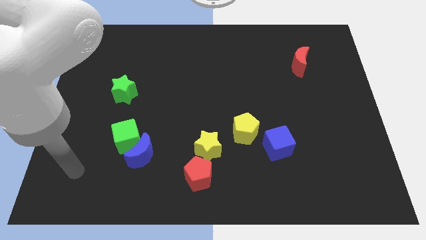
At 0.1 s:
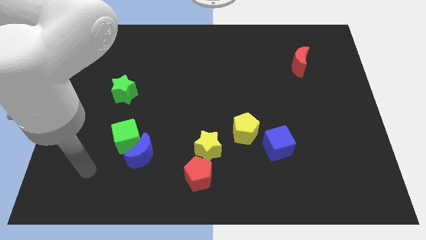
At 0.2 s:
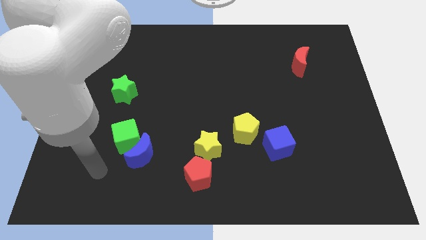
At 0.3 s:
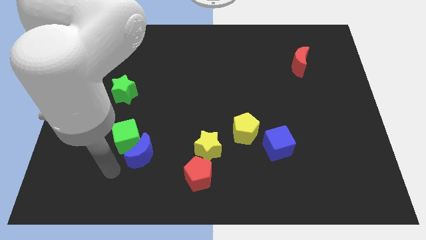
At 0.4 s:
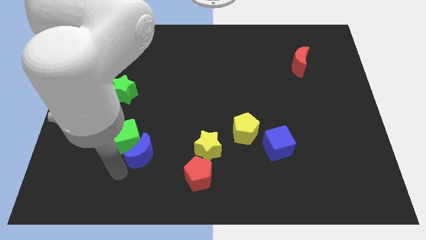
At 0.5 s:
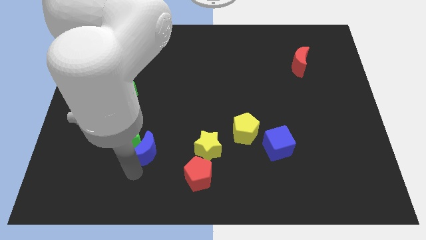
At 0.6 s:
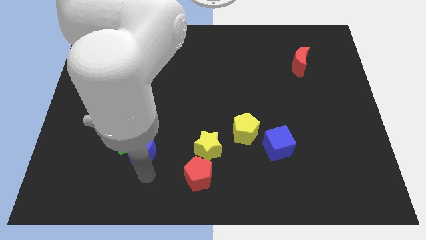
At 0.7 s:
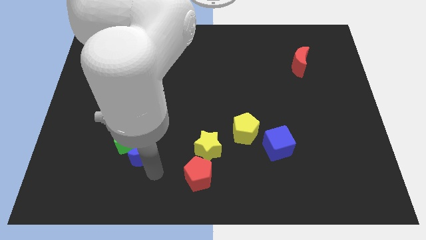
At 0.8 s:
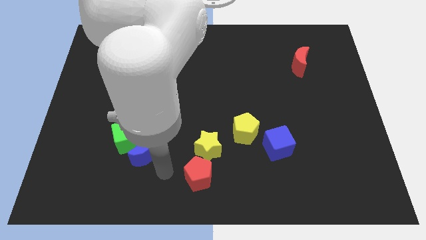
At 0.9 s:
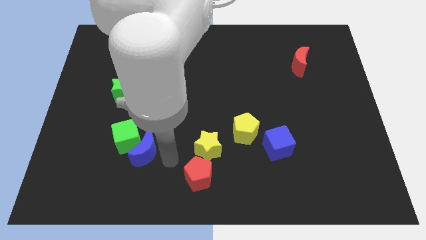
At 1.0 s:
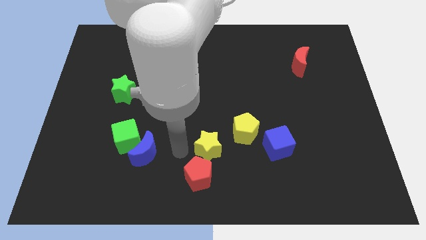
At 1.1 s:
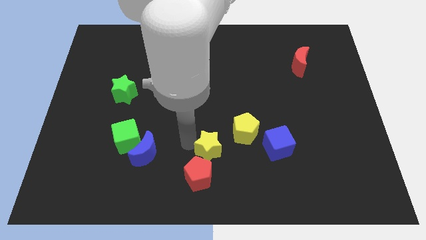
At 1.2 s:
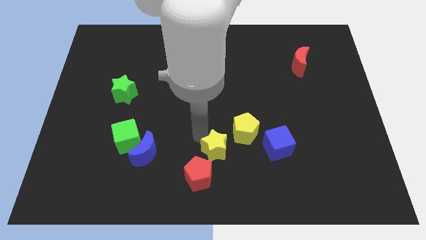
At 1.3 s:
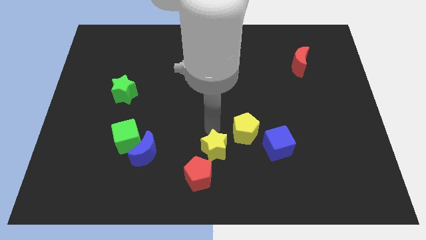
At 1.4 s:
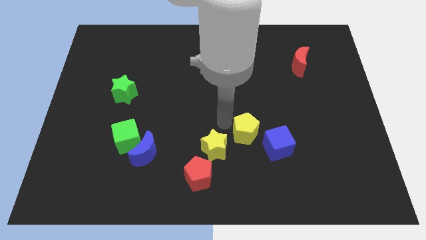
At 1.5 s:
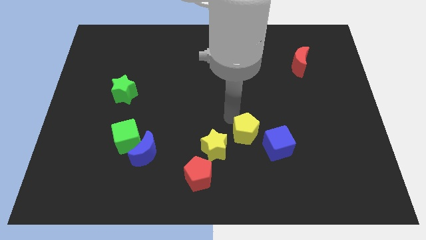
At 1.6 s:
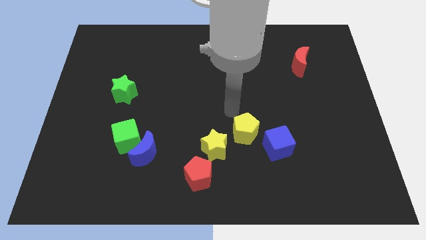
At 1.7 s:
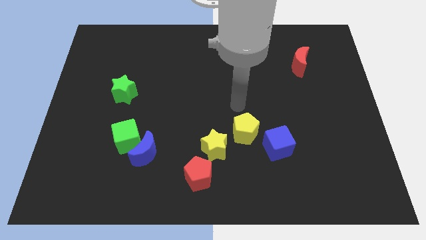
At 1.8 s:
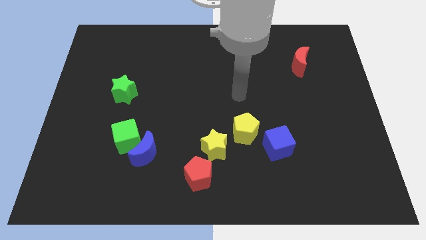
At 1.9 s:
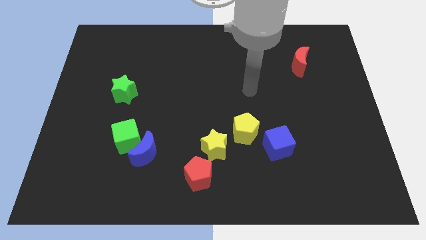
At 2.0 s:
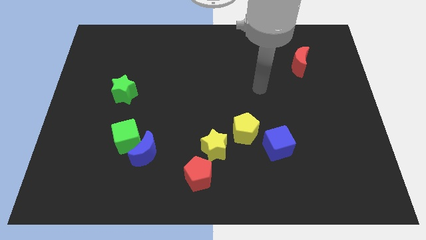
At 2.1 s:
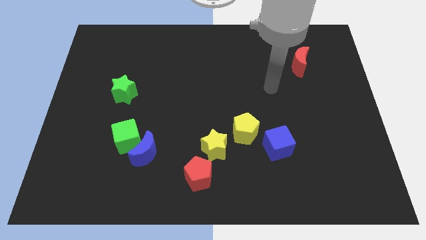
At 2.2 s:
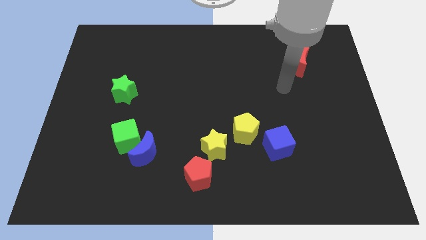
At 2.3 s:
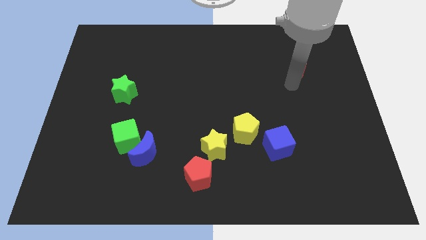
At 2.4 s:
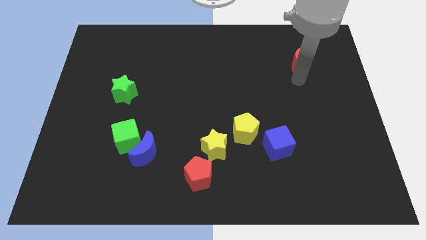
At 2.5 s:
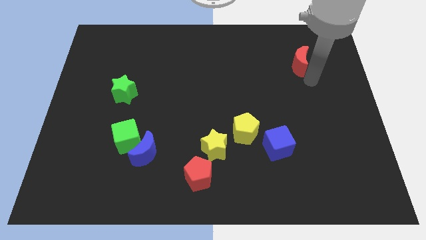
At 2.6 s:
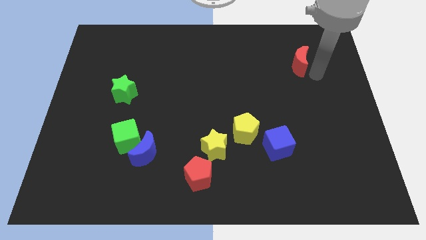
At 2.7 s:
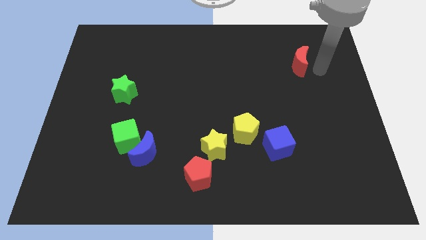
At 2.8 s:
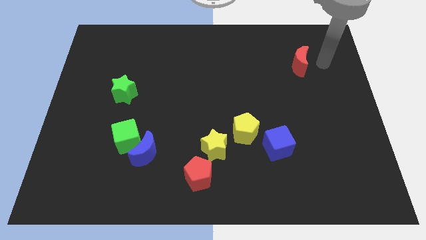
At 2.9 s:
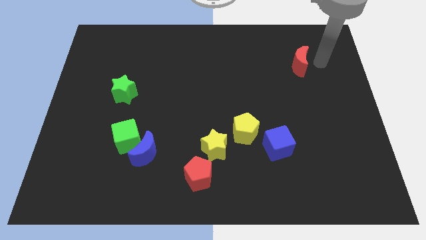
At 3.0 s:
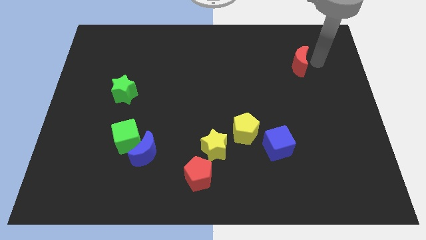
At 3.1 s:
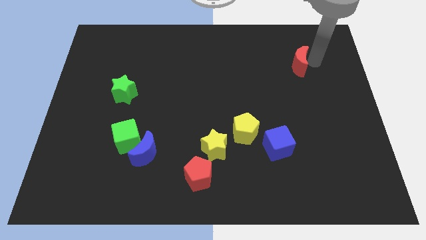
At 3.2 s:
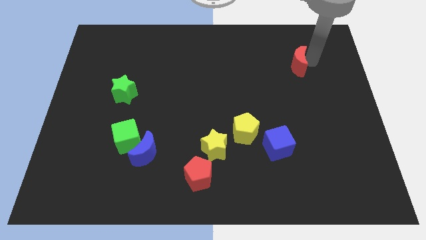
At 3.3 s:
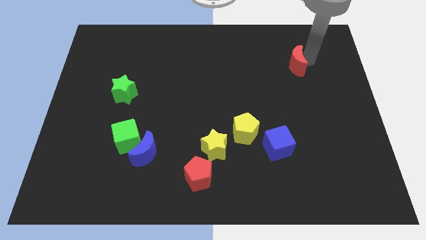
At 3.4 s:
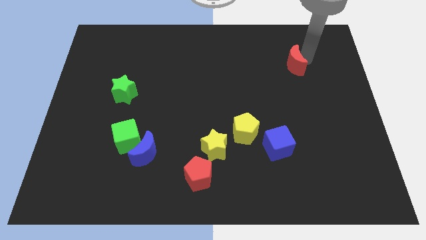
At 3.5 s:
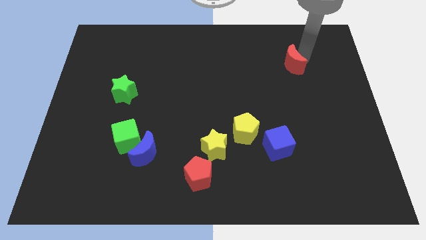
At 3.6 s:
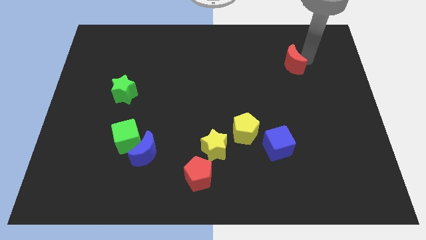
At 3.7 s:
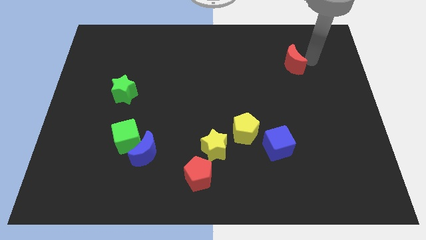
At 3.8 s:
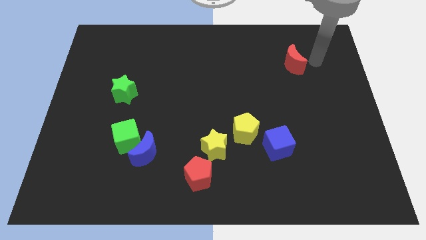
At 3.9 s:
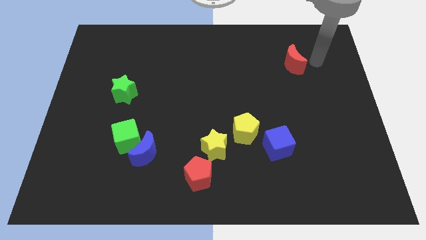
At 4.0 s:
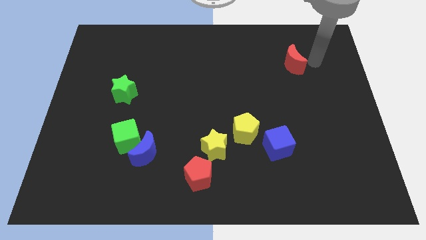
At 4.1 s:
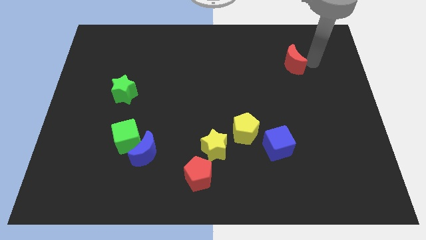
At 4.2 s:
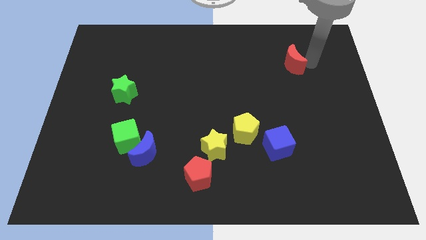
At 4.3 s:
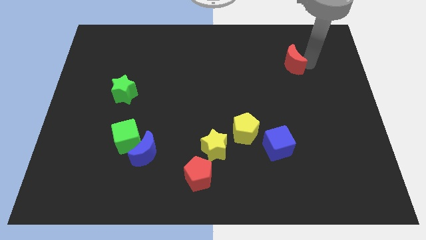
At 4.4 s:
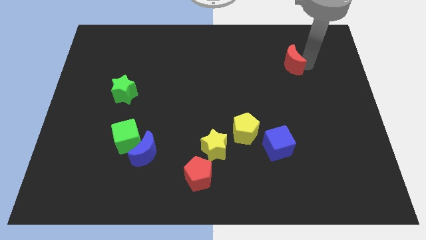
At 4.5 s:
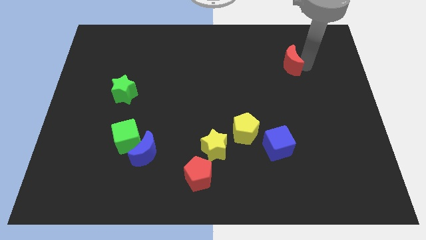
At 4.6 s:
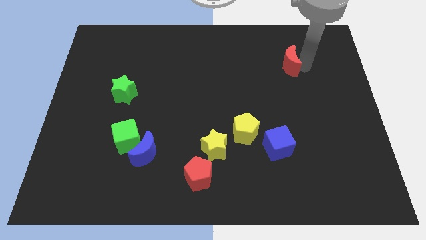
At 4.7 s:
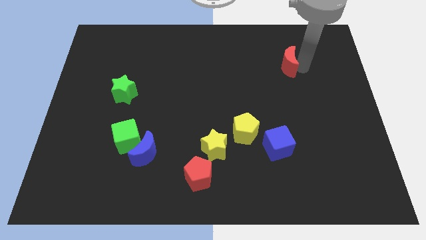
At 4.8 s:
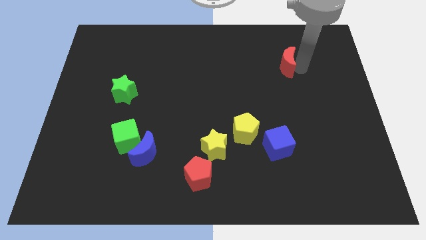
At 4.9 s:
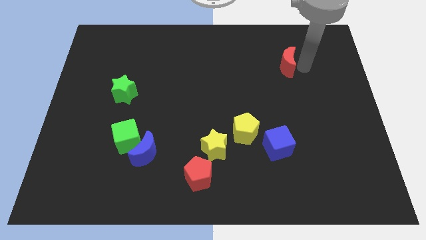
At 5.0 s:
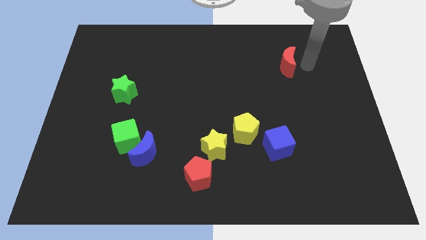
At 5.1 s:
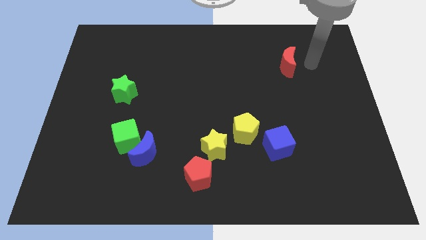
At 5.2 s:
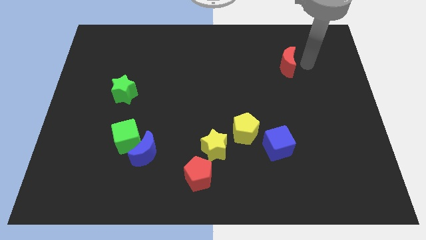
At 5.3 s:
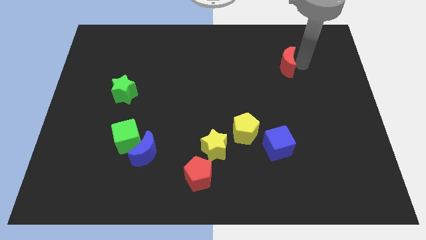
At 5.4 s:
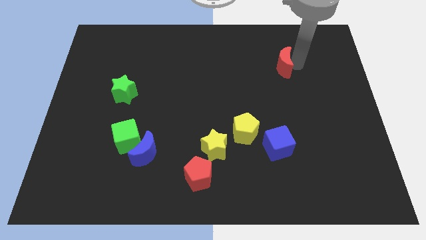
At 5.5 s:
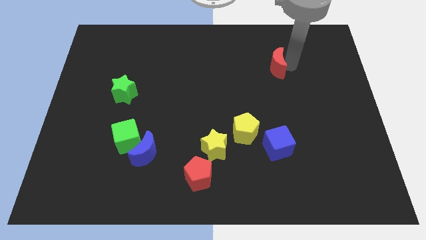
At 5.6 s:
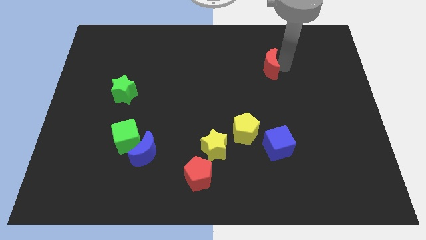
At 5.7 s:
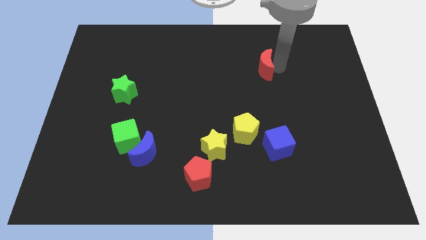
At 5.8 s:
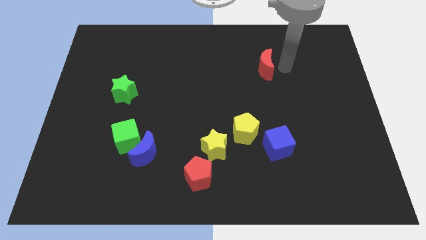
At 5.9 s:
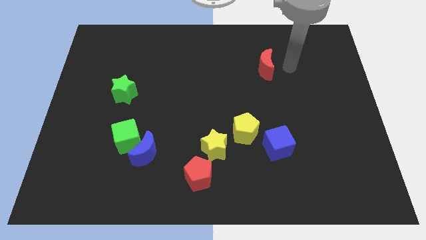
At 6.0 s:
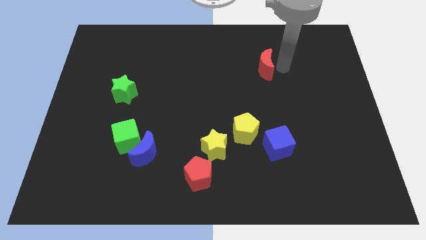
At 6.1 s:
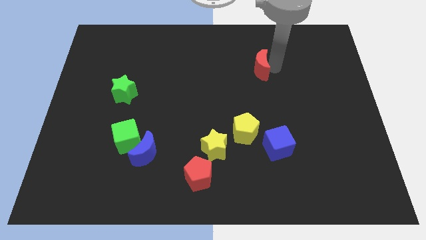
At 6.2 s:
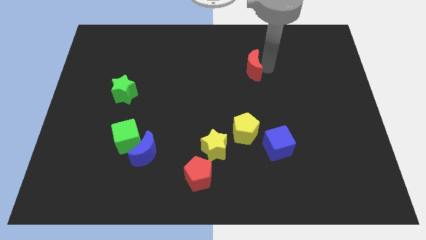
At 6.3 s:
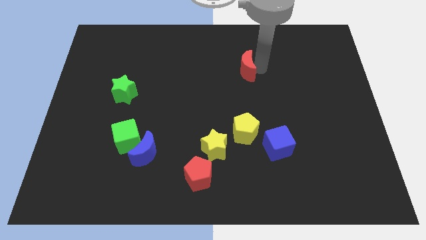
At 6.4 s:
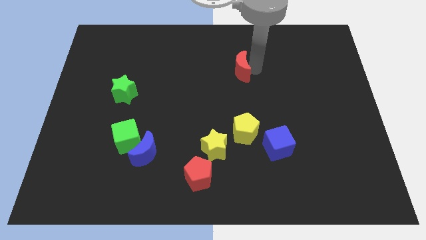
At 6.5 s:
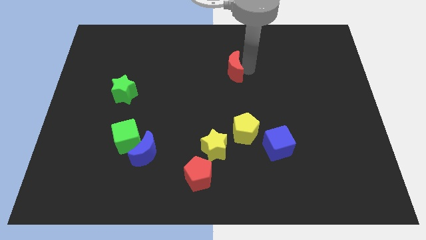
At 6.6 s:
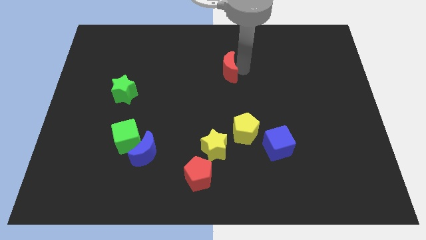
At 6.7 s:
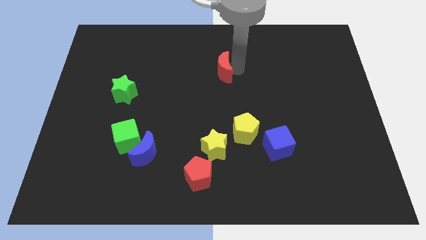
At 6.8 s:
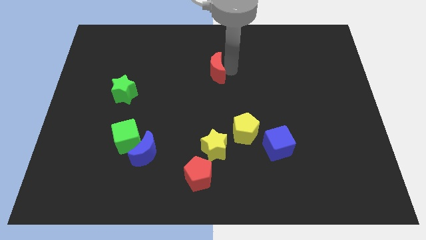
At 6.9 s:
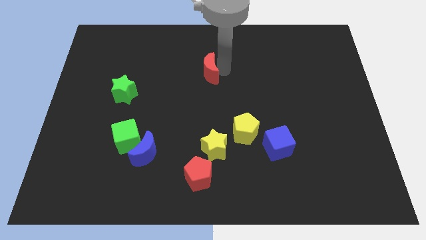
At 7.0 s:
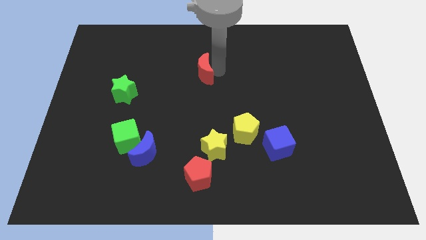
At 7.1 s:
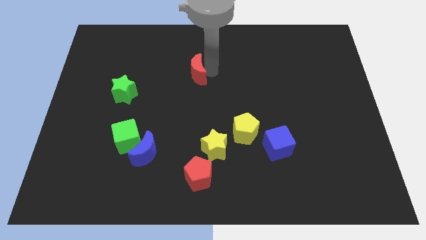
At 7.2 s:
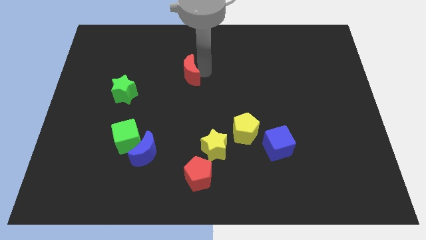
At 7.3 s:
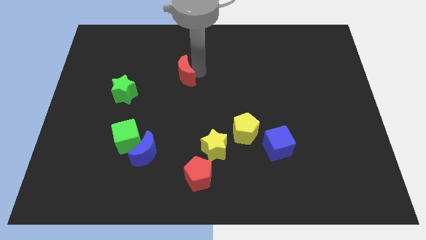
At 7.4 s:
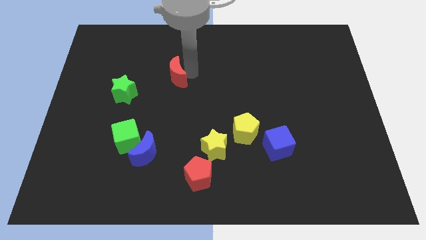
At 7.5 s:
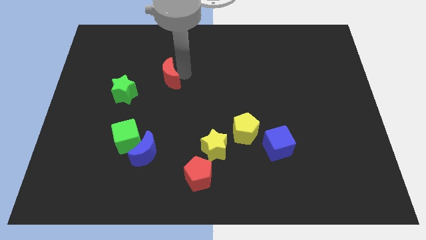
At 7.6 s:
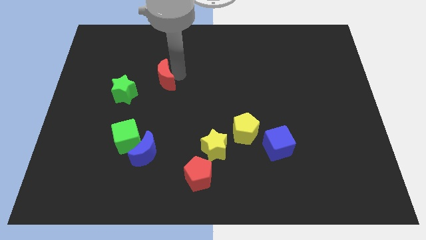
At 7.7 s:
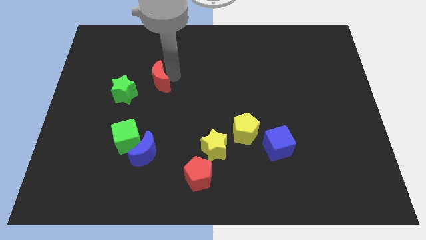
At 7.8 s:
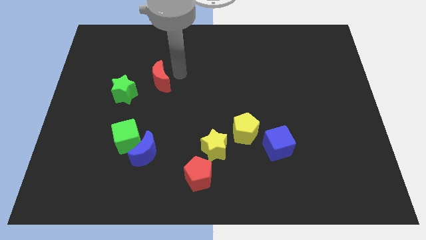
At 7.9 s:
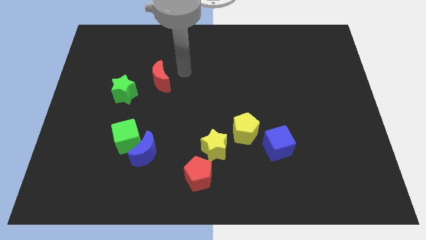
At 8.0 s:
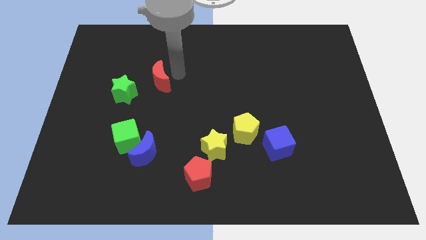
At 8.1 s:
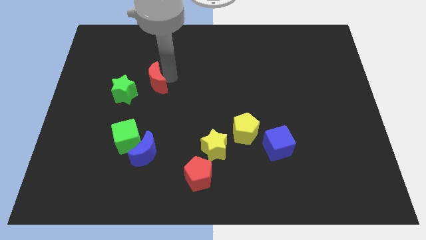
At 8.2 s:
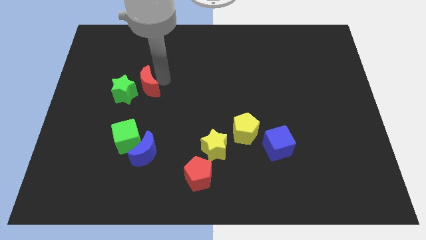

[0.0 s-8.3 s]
put the red moon close to the green star
